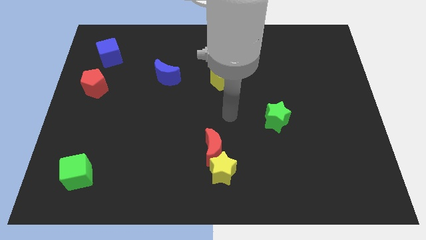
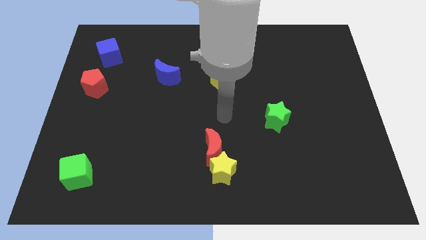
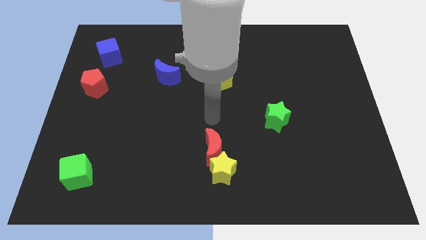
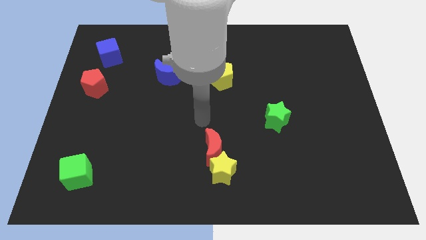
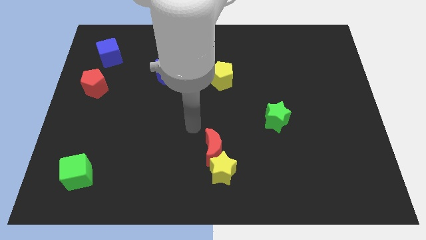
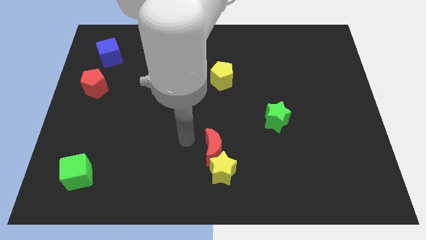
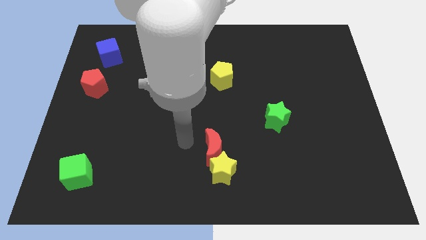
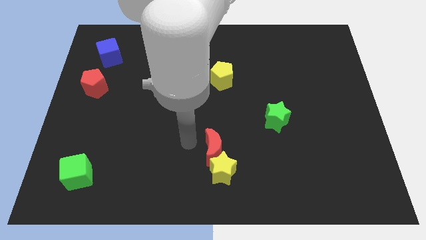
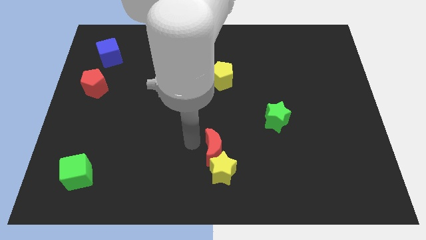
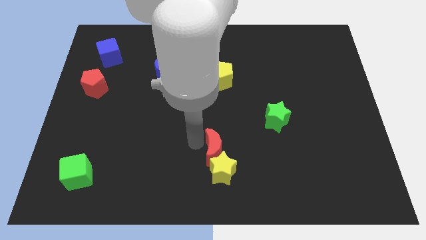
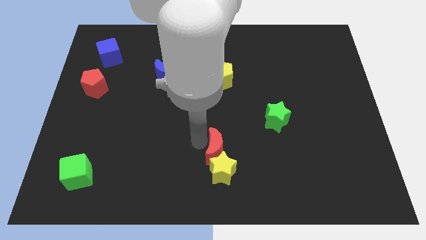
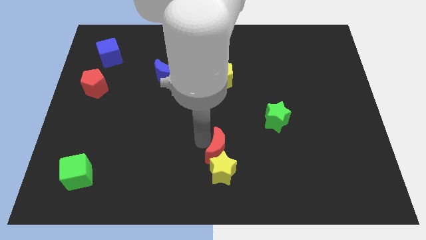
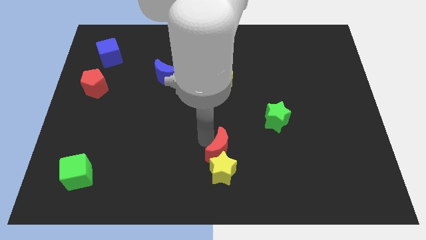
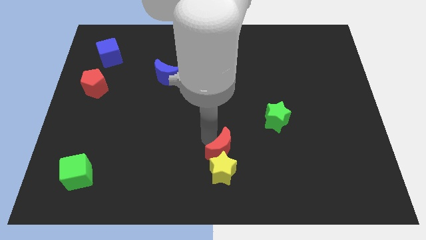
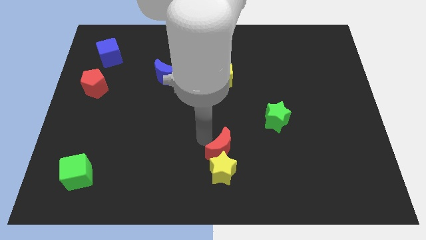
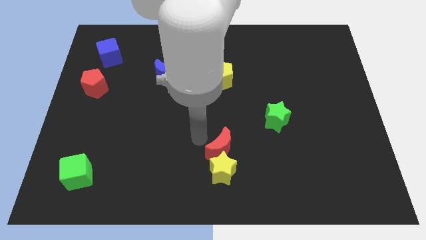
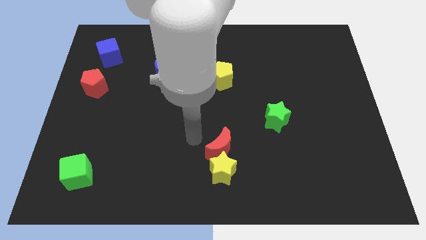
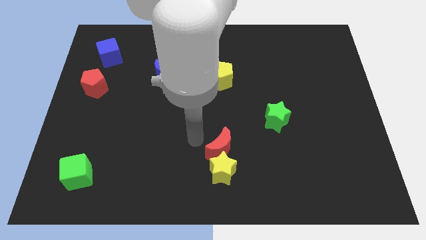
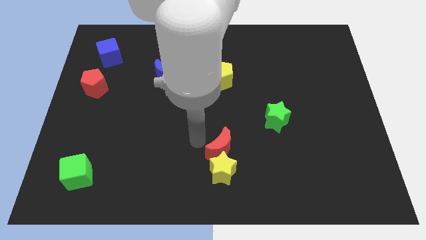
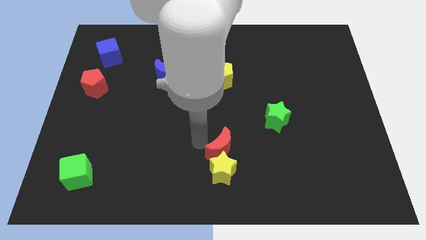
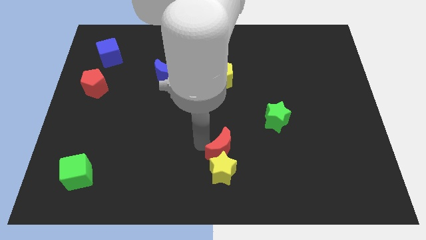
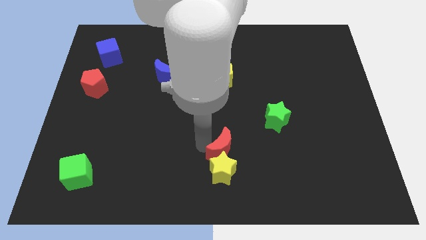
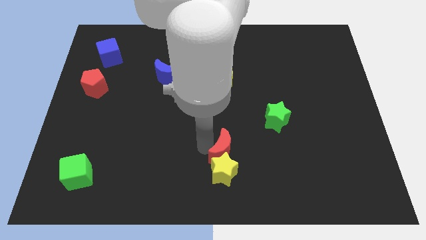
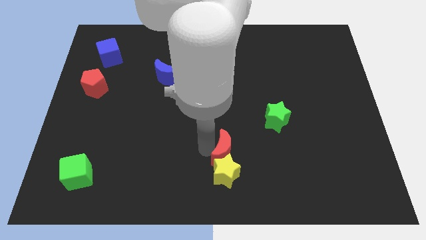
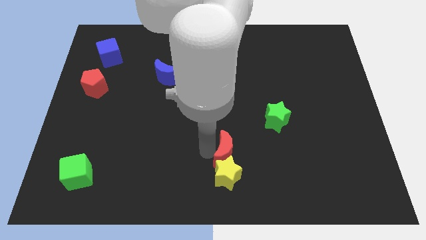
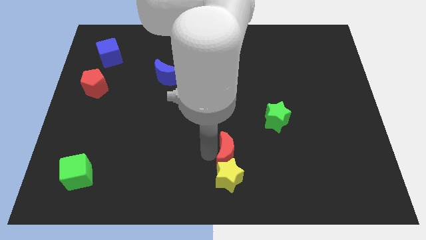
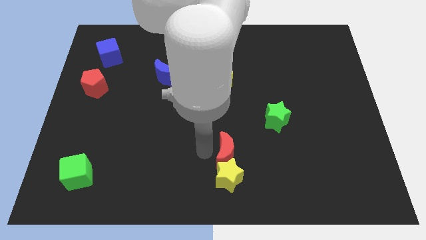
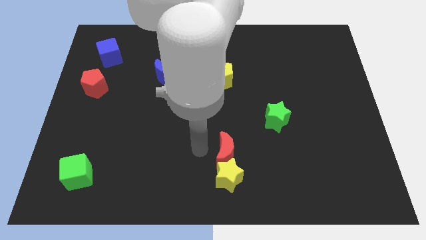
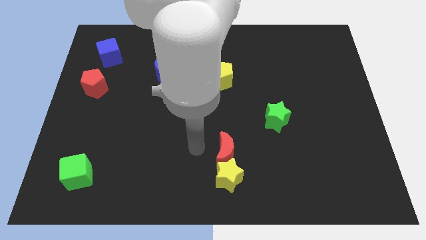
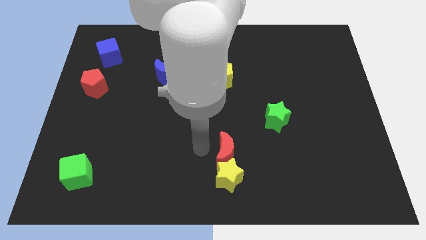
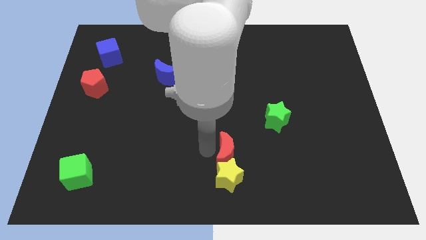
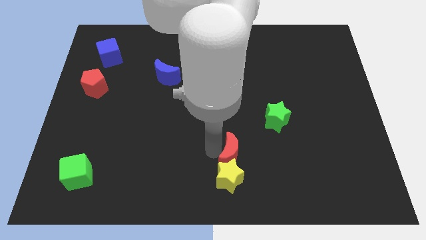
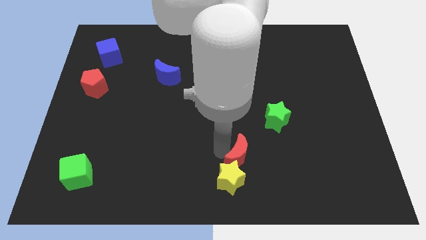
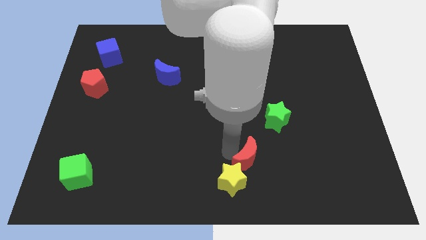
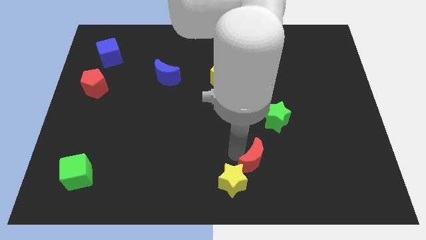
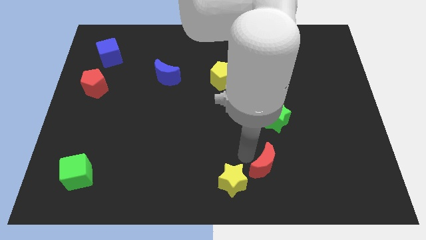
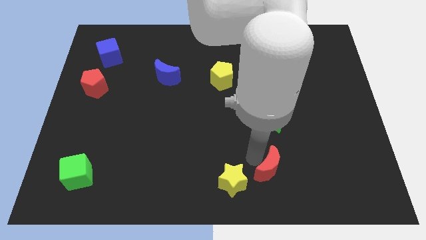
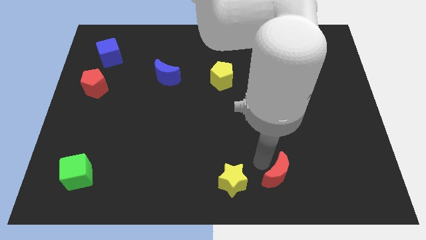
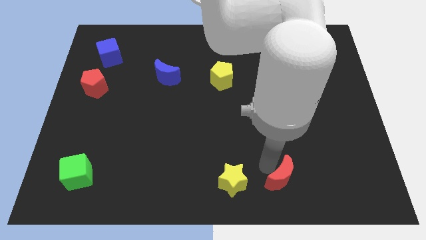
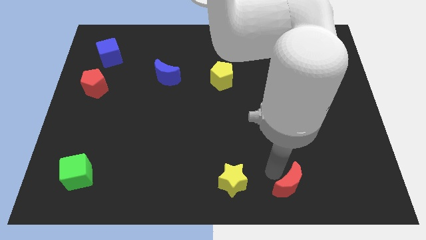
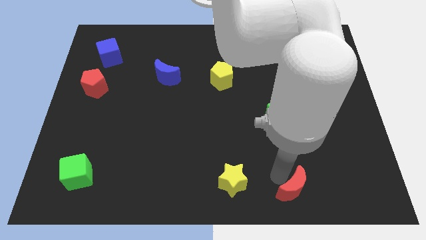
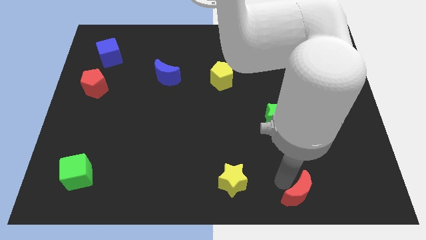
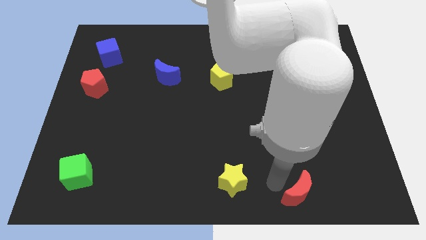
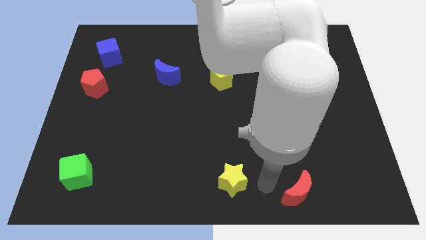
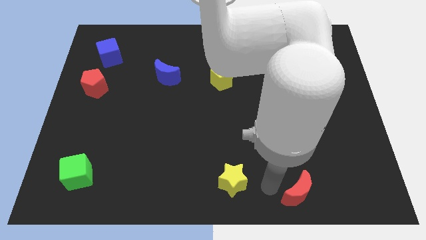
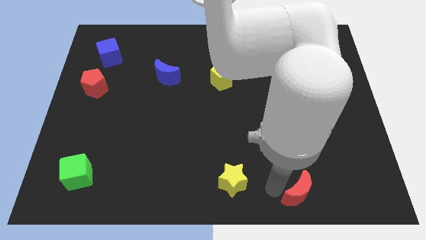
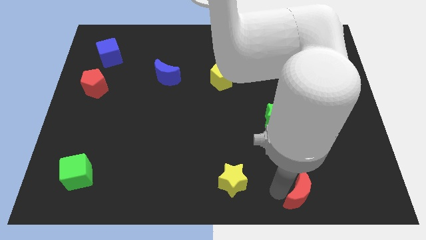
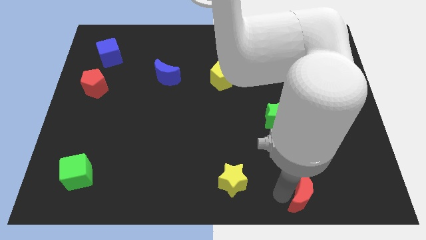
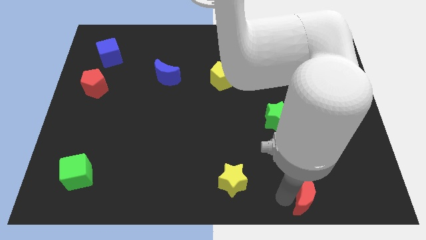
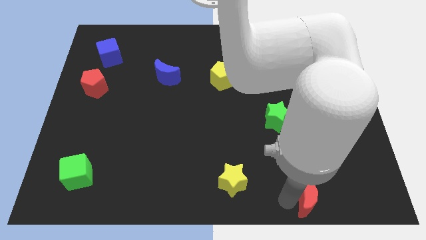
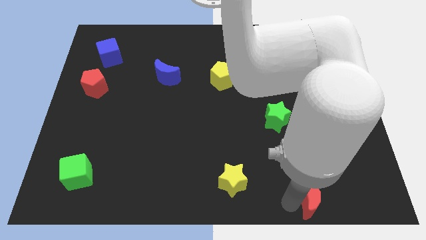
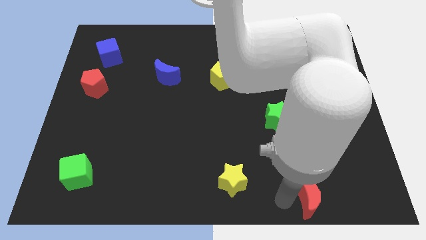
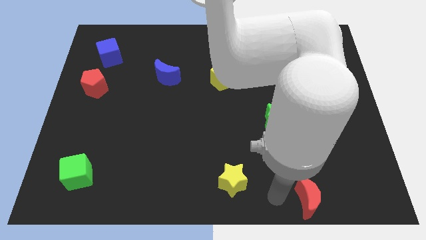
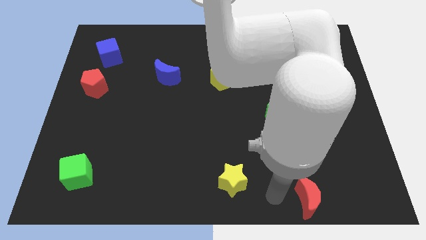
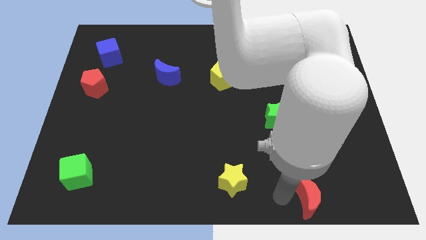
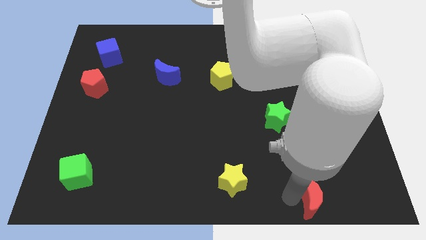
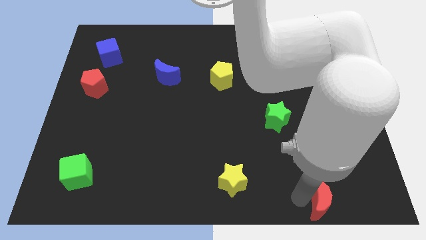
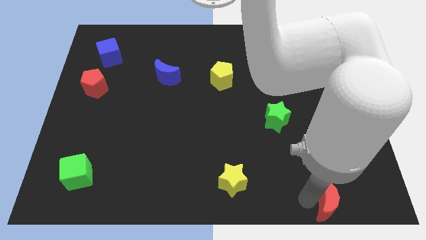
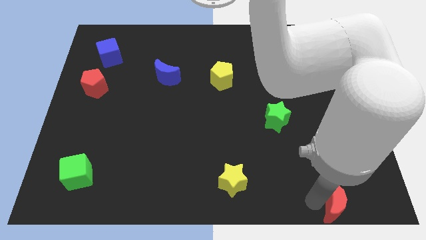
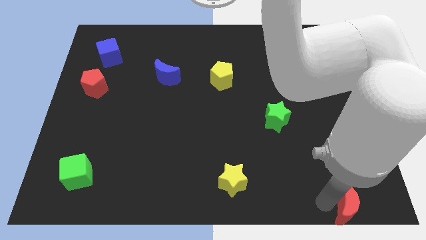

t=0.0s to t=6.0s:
slide the red moon to the bottom right of the board
